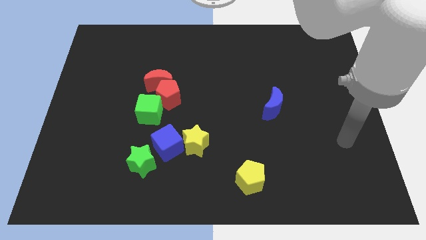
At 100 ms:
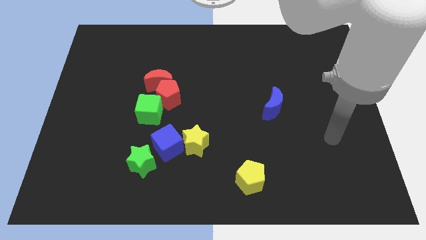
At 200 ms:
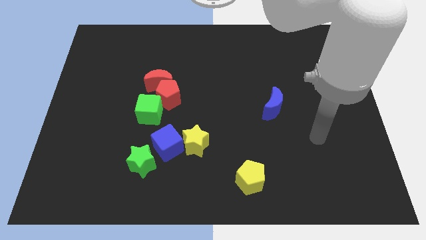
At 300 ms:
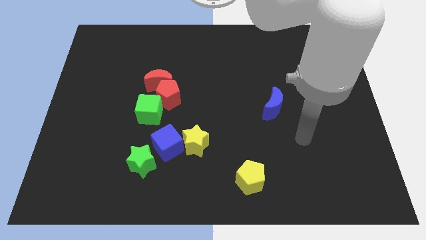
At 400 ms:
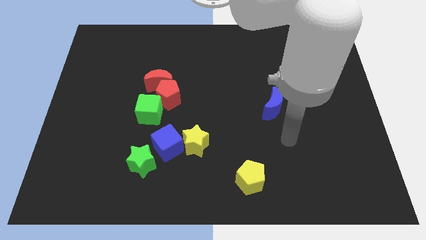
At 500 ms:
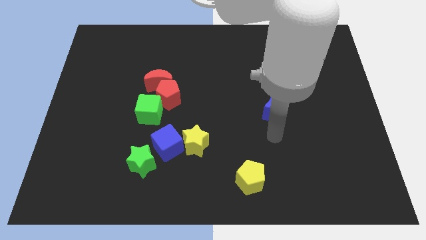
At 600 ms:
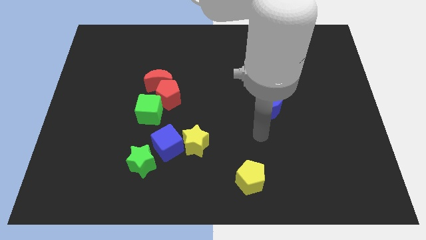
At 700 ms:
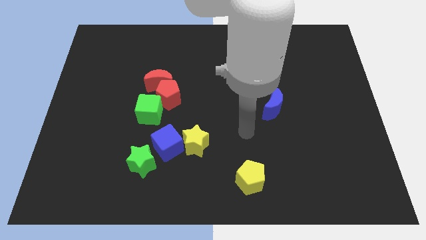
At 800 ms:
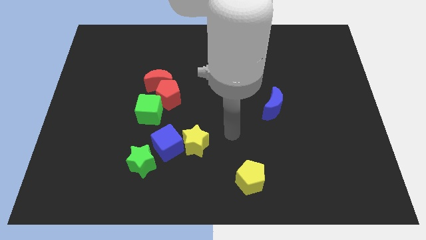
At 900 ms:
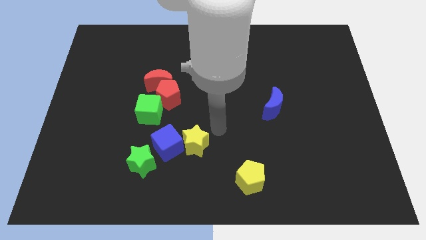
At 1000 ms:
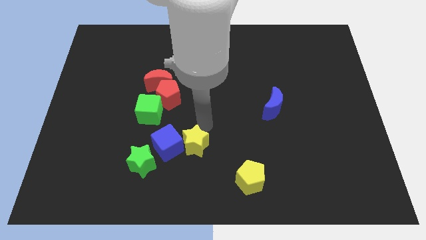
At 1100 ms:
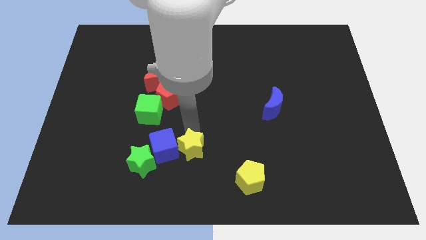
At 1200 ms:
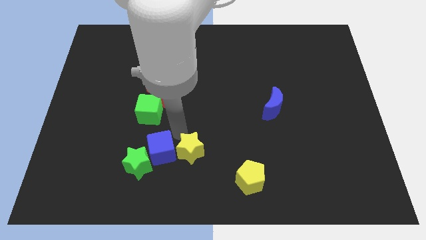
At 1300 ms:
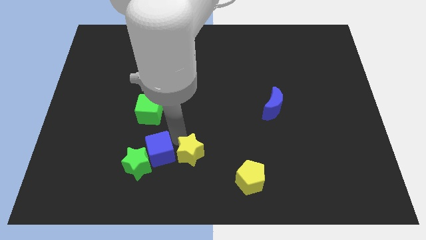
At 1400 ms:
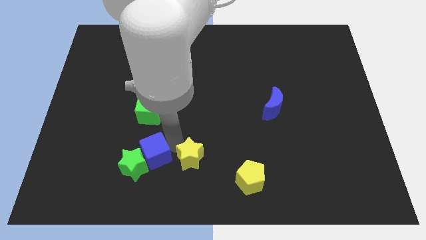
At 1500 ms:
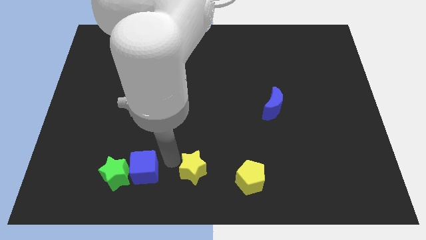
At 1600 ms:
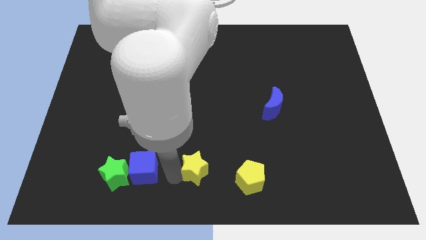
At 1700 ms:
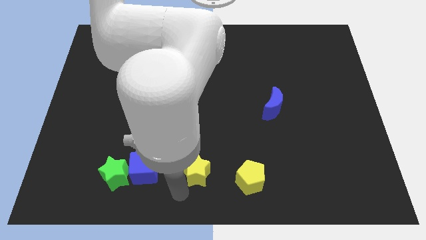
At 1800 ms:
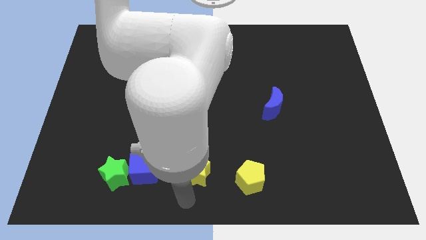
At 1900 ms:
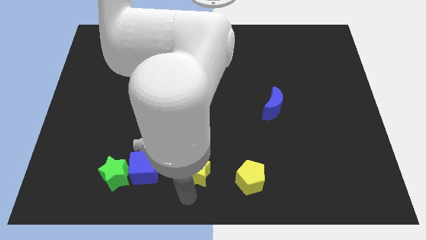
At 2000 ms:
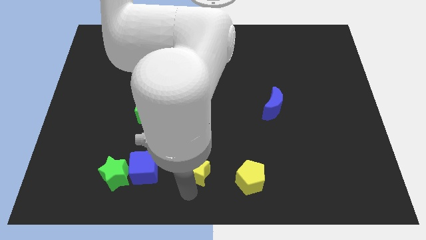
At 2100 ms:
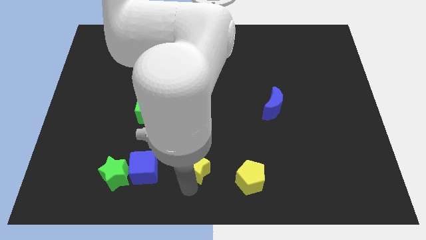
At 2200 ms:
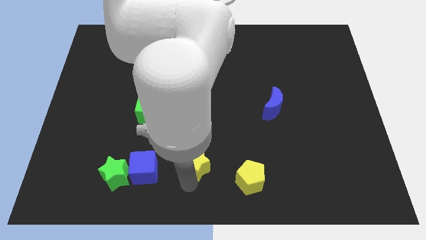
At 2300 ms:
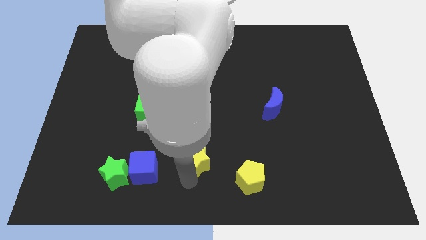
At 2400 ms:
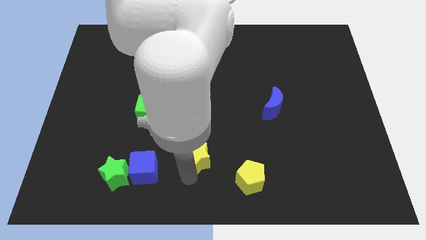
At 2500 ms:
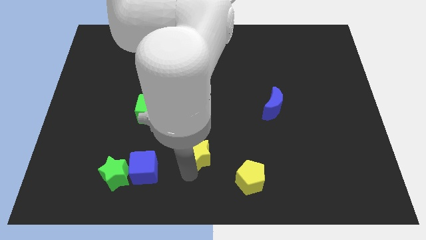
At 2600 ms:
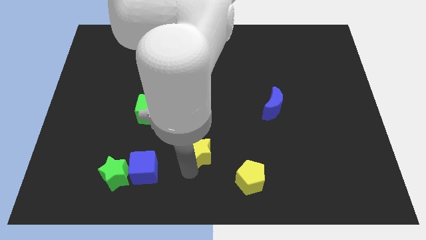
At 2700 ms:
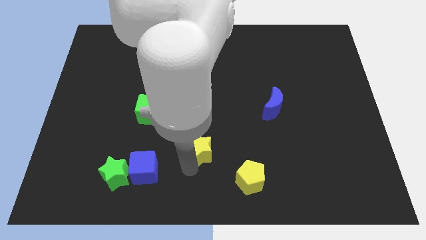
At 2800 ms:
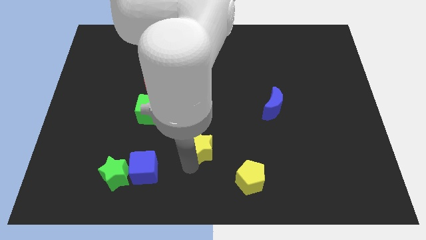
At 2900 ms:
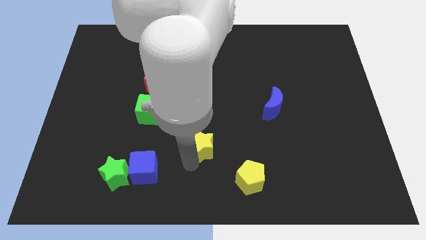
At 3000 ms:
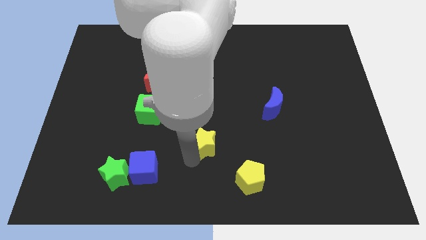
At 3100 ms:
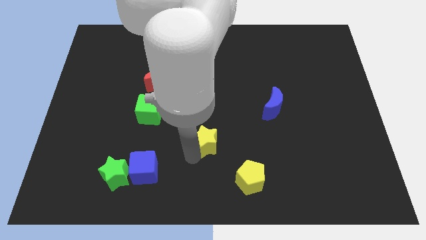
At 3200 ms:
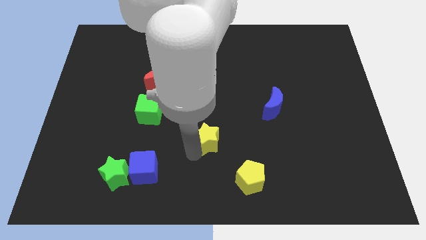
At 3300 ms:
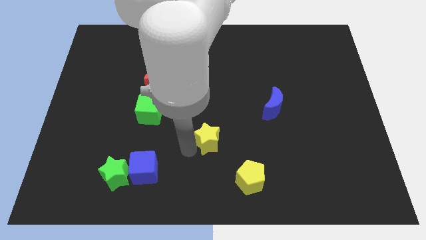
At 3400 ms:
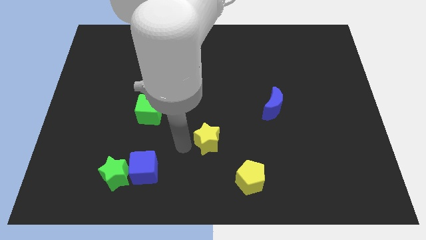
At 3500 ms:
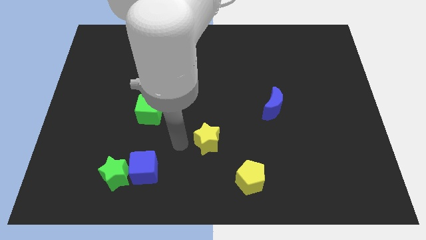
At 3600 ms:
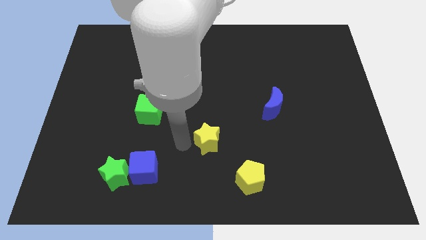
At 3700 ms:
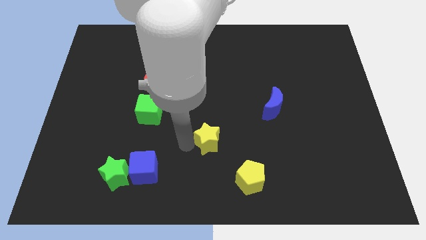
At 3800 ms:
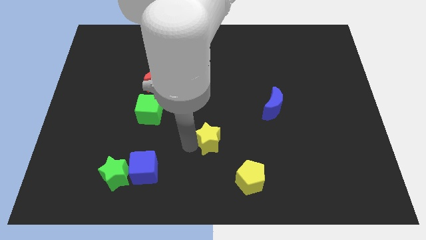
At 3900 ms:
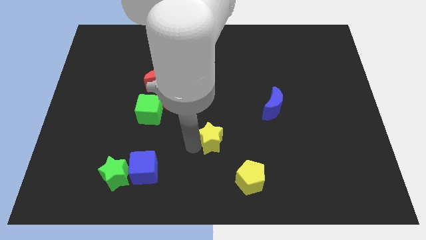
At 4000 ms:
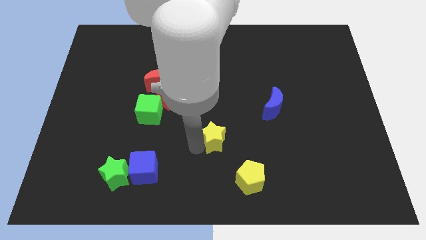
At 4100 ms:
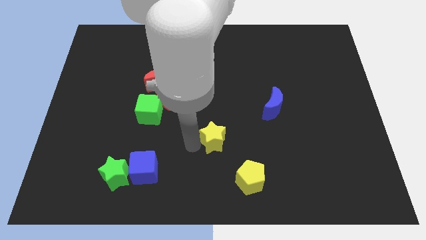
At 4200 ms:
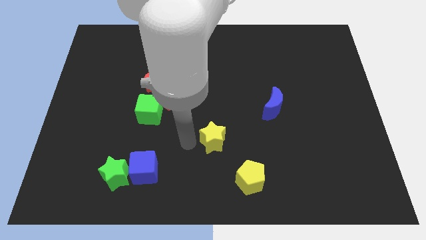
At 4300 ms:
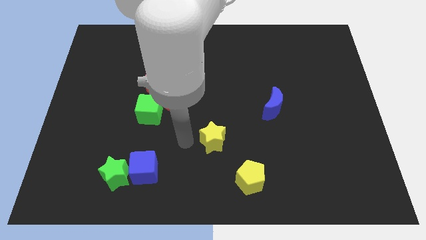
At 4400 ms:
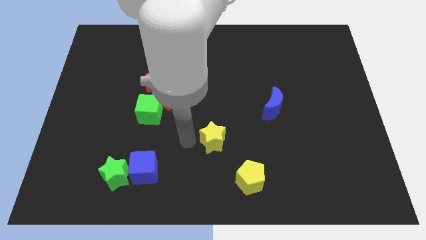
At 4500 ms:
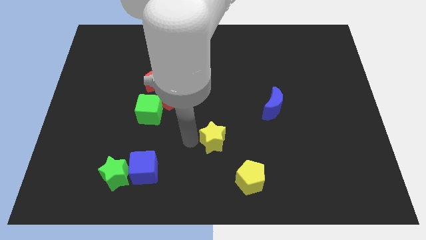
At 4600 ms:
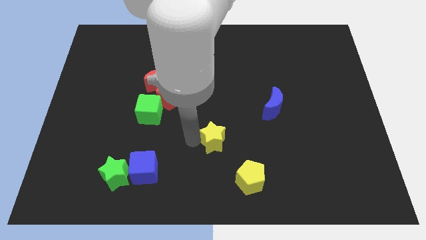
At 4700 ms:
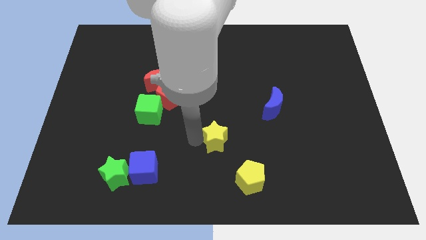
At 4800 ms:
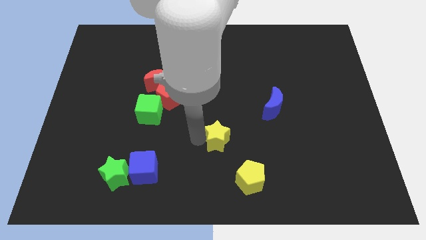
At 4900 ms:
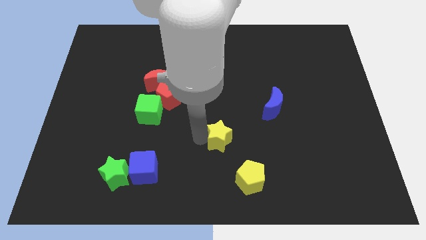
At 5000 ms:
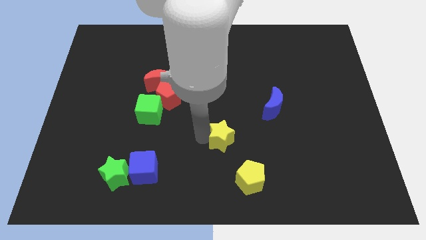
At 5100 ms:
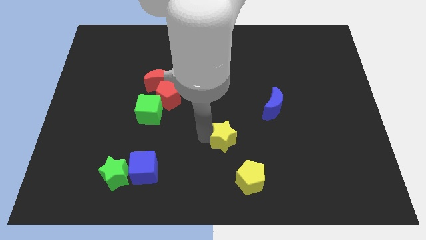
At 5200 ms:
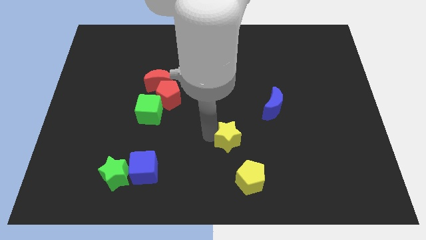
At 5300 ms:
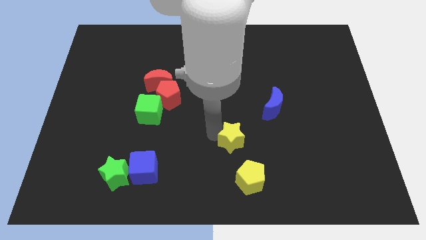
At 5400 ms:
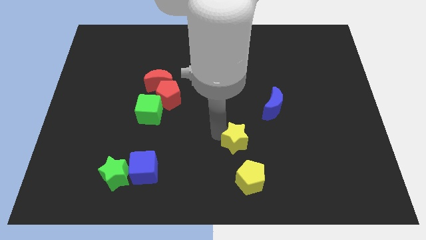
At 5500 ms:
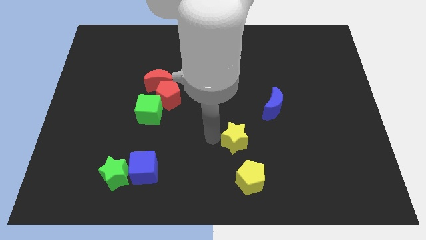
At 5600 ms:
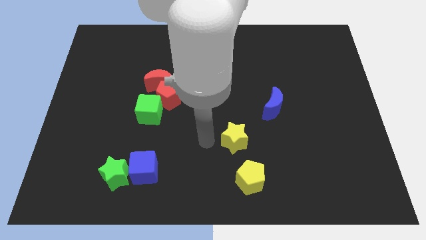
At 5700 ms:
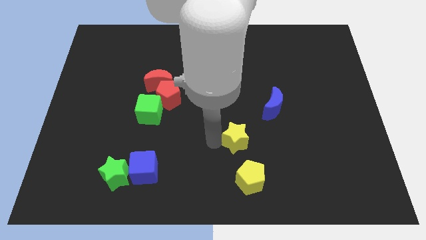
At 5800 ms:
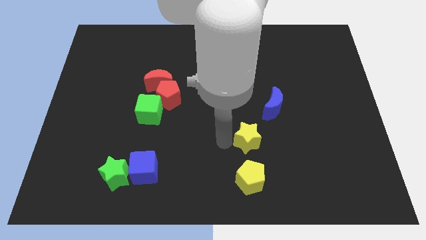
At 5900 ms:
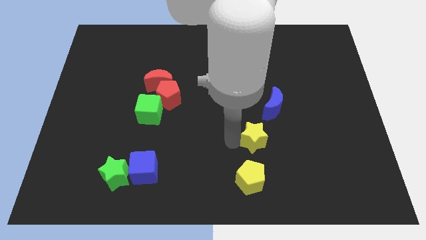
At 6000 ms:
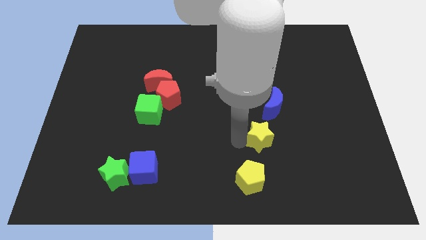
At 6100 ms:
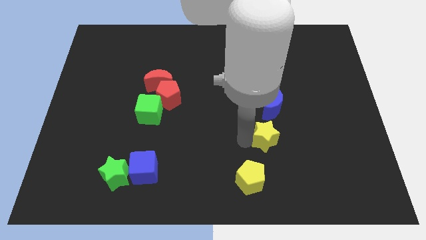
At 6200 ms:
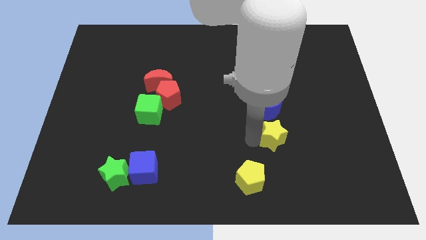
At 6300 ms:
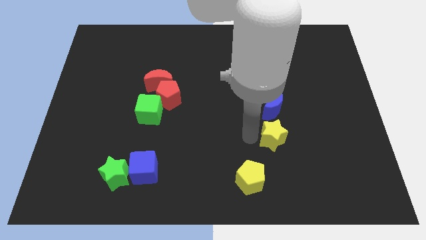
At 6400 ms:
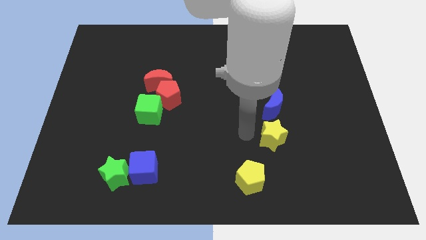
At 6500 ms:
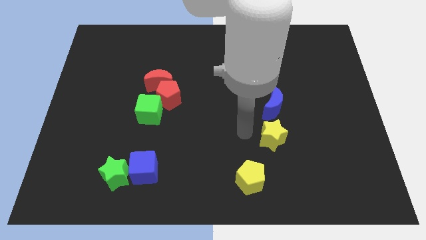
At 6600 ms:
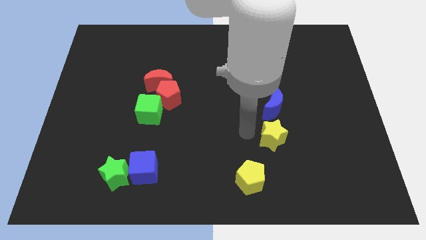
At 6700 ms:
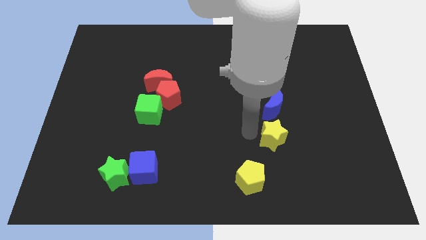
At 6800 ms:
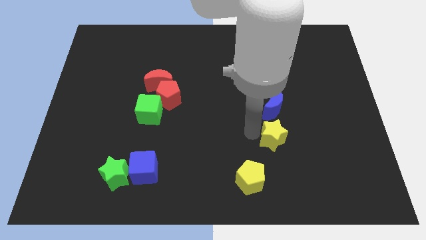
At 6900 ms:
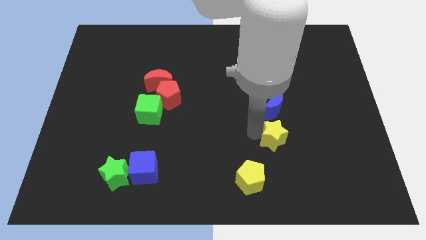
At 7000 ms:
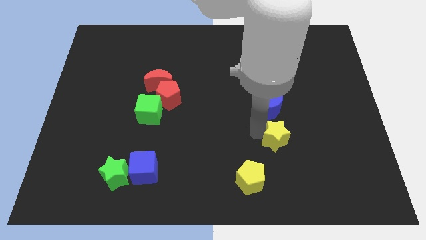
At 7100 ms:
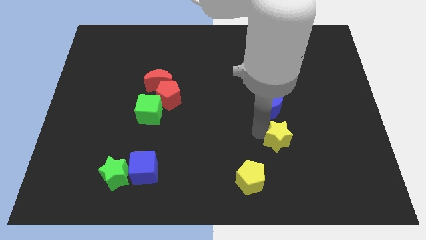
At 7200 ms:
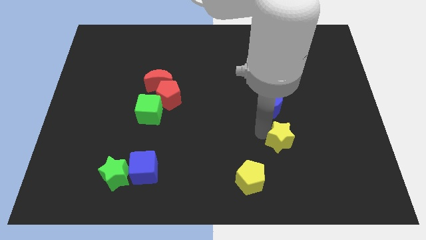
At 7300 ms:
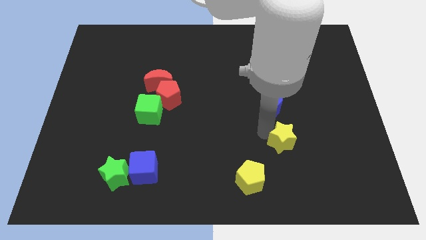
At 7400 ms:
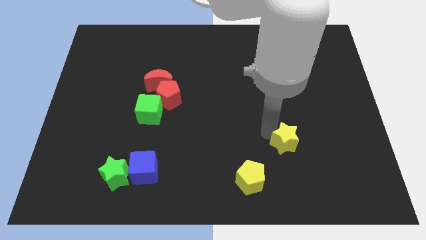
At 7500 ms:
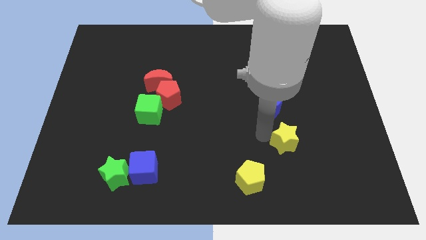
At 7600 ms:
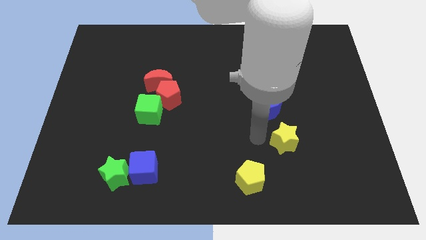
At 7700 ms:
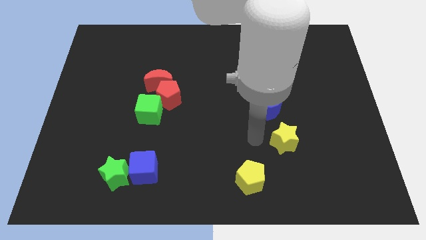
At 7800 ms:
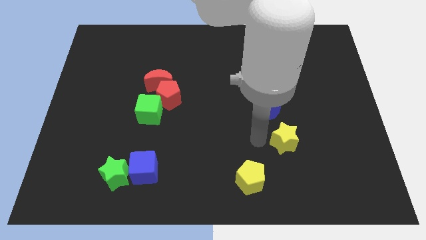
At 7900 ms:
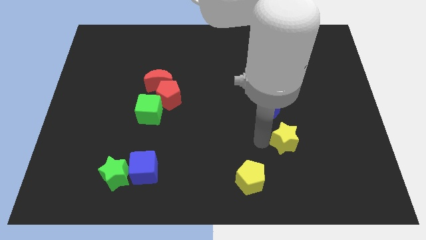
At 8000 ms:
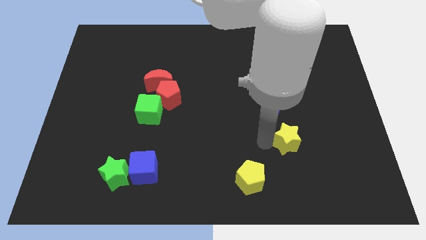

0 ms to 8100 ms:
slide the yellow star right
